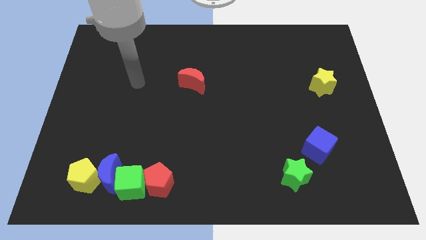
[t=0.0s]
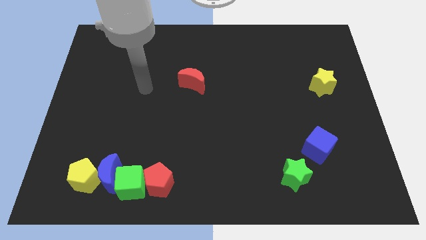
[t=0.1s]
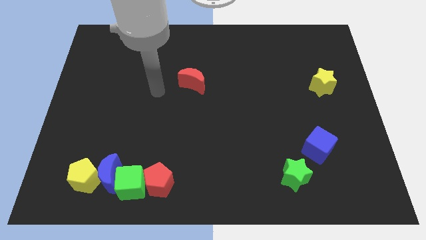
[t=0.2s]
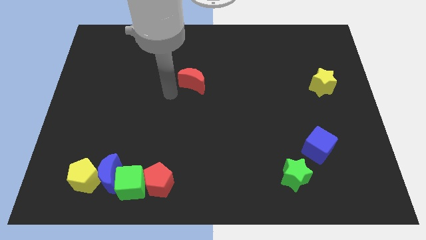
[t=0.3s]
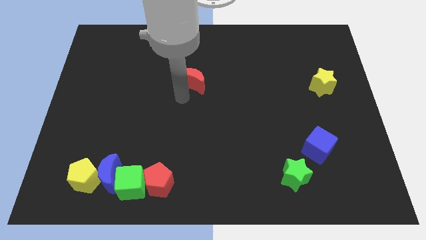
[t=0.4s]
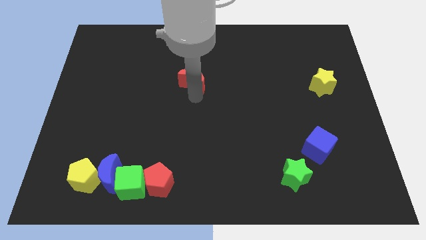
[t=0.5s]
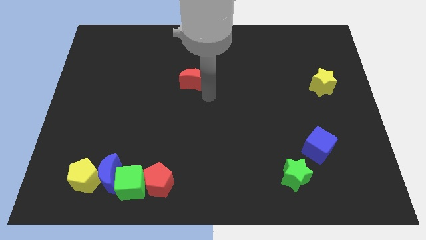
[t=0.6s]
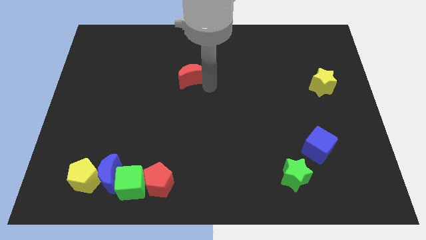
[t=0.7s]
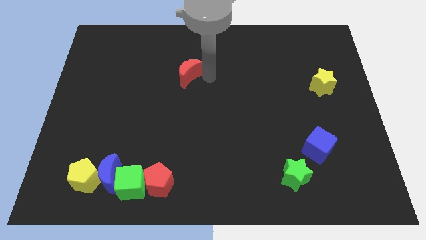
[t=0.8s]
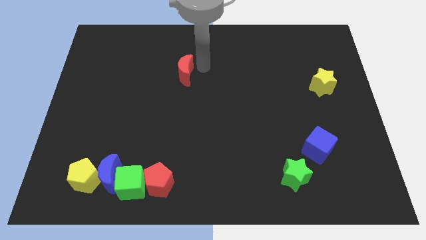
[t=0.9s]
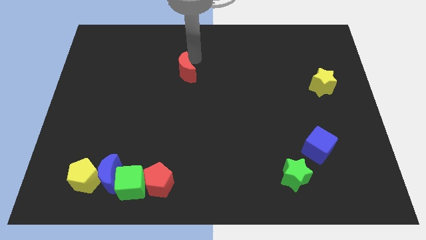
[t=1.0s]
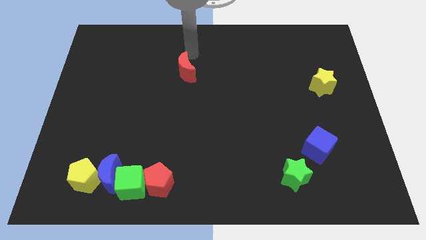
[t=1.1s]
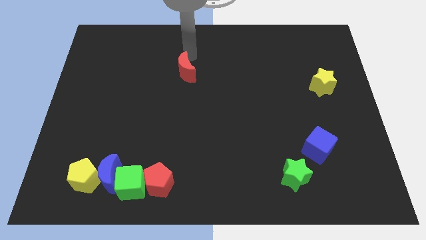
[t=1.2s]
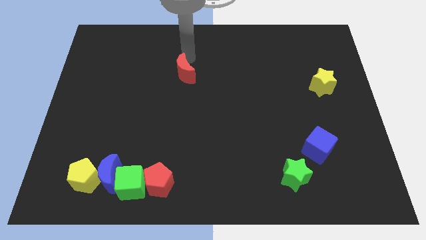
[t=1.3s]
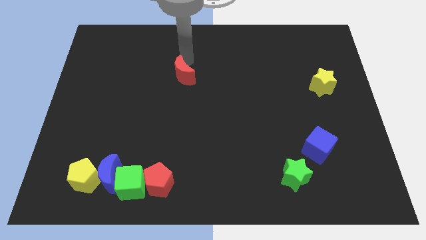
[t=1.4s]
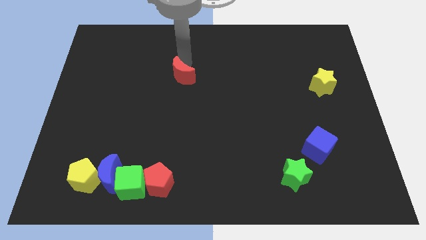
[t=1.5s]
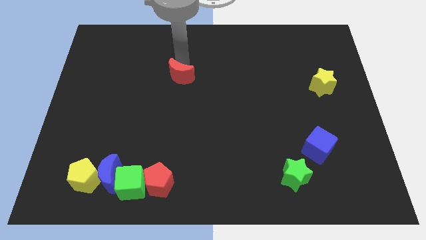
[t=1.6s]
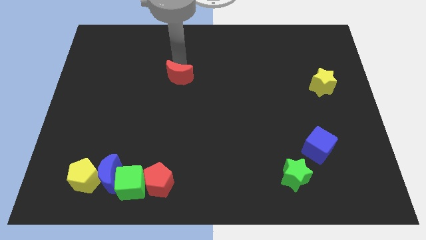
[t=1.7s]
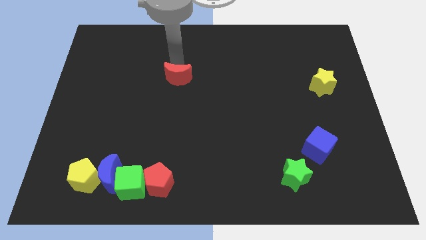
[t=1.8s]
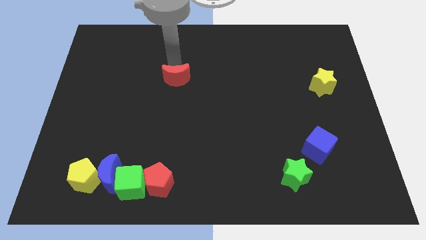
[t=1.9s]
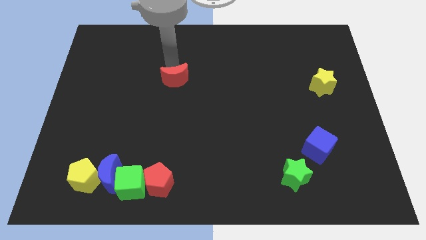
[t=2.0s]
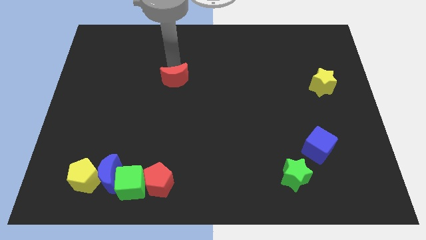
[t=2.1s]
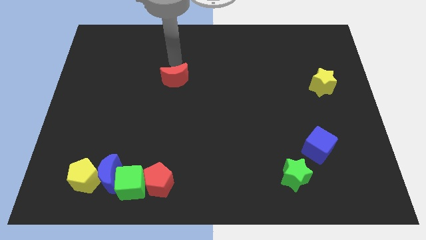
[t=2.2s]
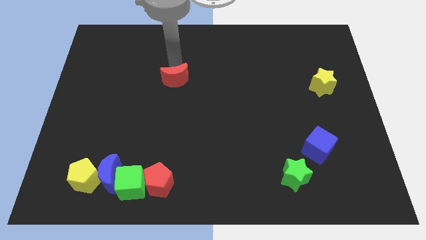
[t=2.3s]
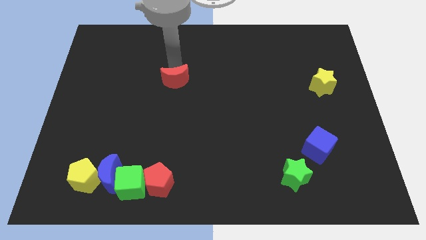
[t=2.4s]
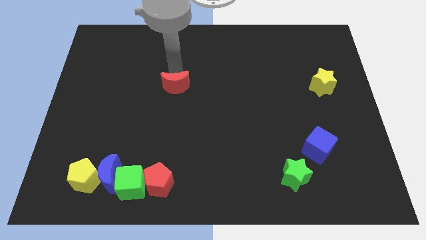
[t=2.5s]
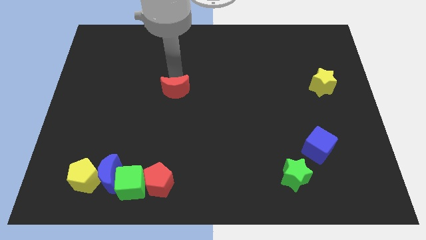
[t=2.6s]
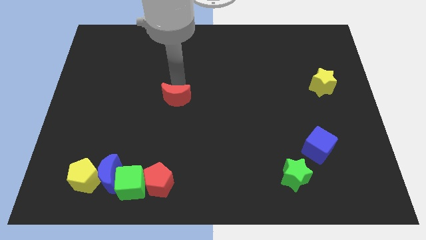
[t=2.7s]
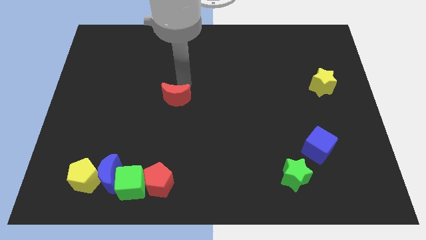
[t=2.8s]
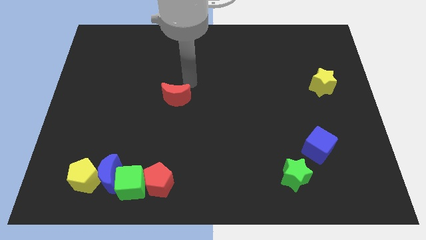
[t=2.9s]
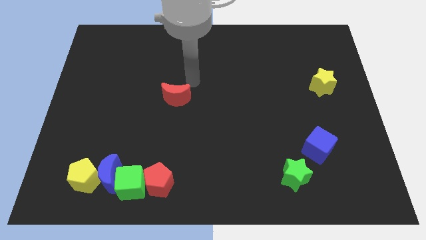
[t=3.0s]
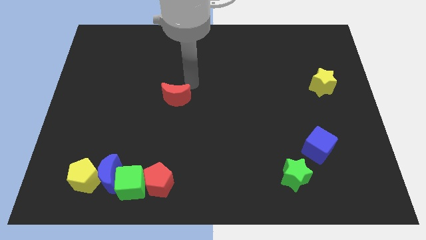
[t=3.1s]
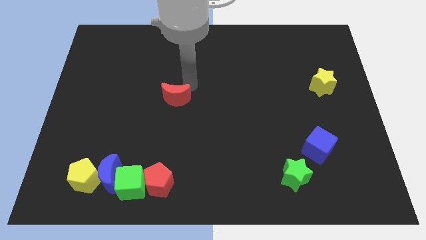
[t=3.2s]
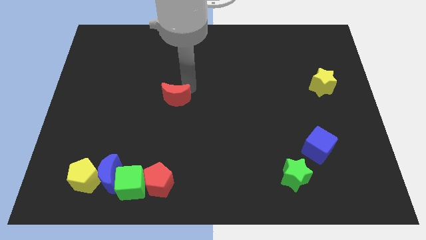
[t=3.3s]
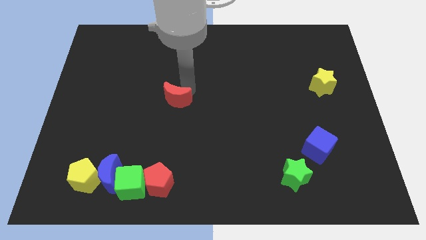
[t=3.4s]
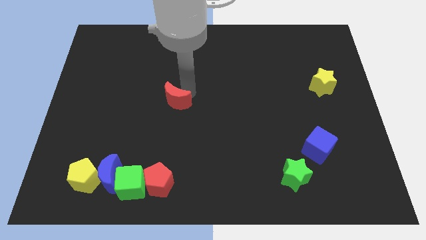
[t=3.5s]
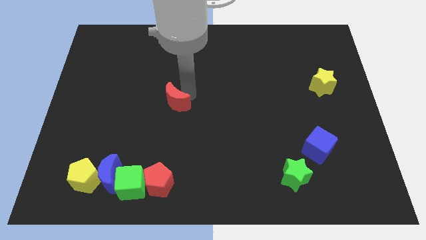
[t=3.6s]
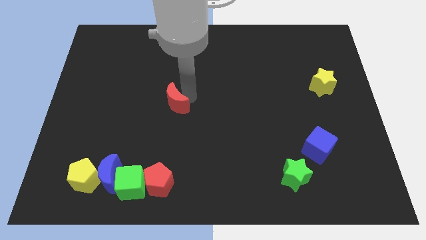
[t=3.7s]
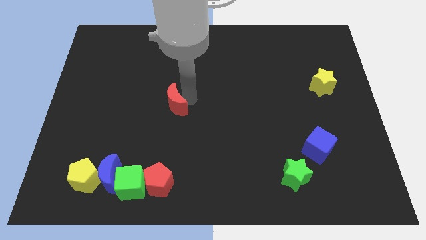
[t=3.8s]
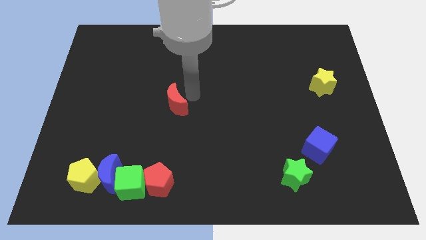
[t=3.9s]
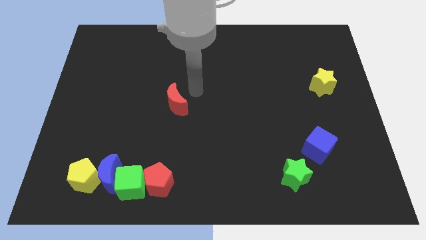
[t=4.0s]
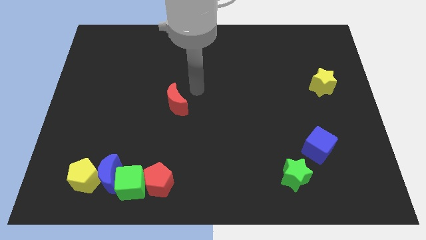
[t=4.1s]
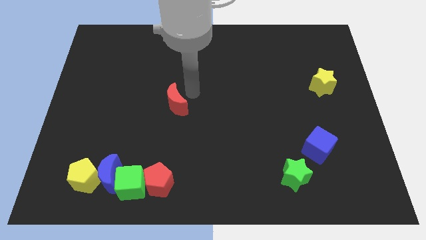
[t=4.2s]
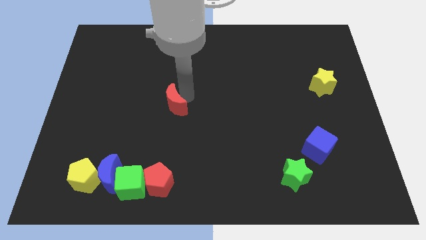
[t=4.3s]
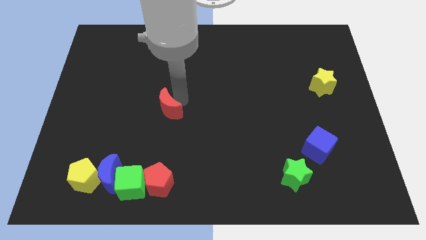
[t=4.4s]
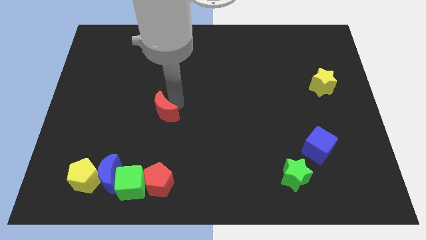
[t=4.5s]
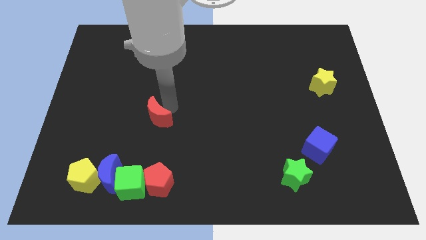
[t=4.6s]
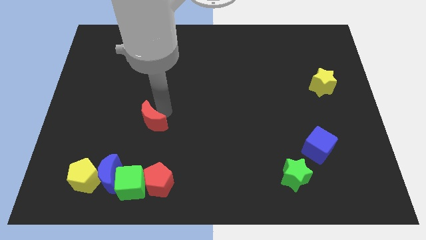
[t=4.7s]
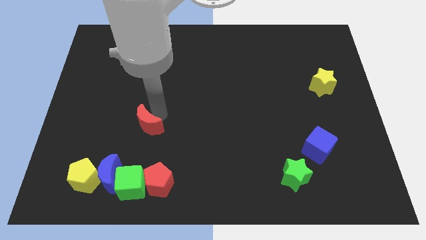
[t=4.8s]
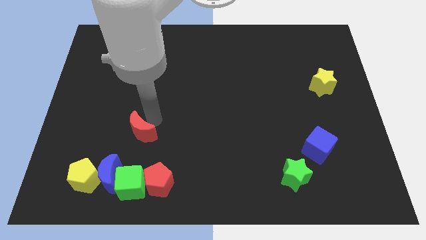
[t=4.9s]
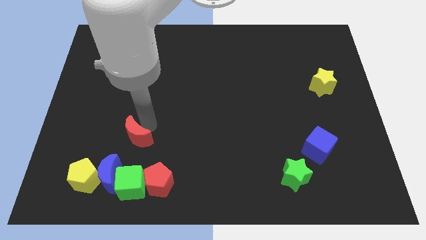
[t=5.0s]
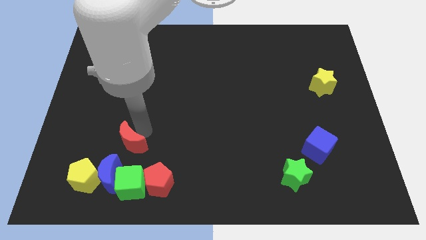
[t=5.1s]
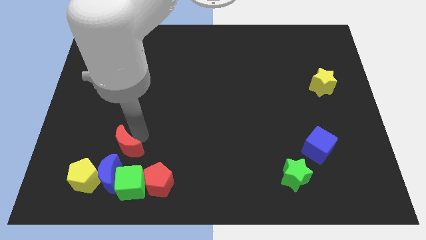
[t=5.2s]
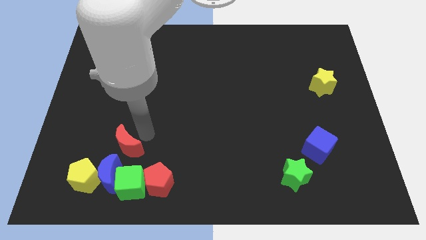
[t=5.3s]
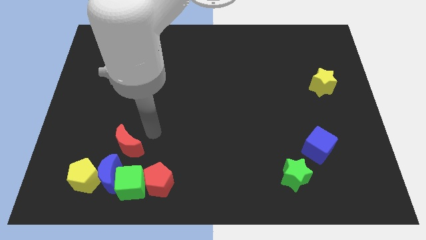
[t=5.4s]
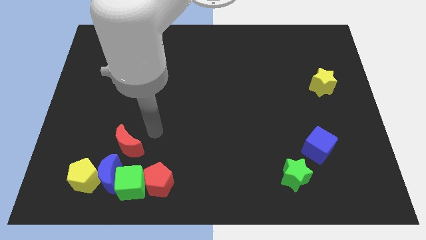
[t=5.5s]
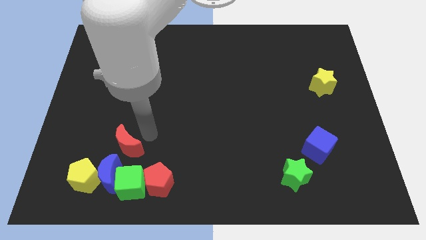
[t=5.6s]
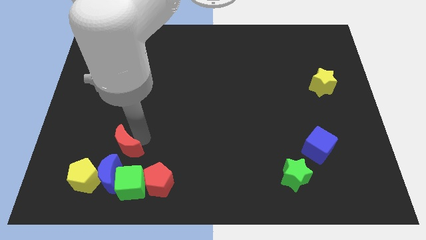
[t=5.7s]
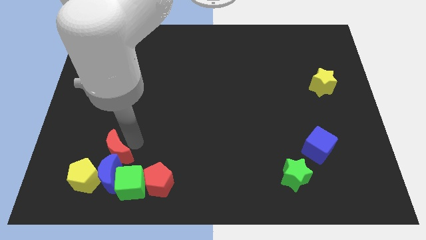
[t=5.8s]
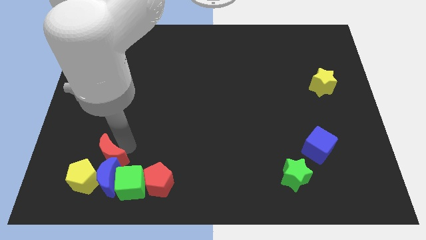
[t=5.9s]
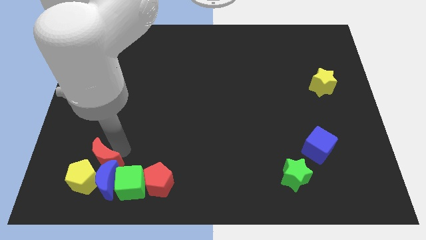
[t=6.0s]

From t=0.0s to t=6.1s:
slide the red moon next to the yellow pentagon

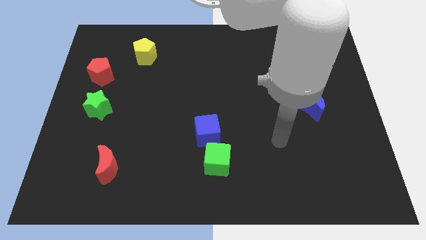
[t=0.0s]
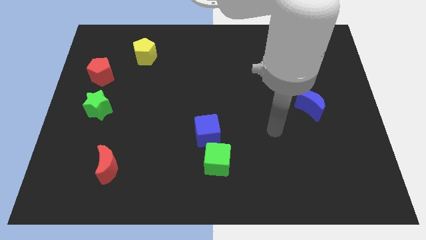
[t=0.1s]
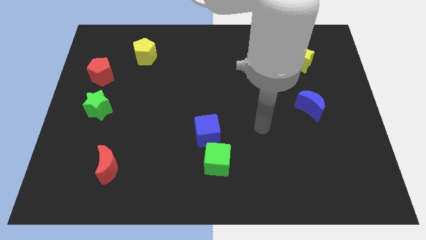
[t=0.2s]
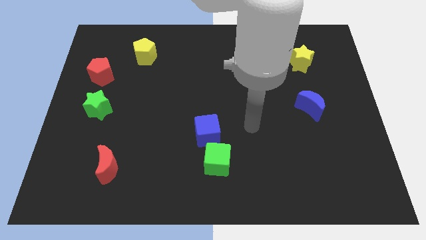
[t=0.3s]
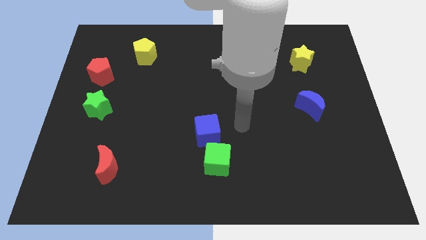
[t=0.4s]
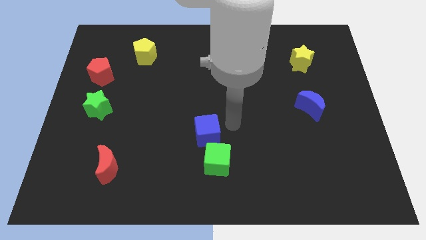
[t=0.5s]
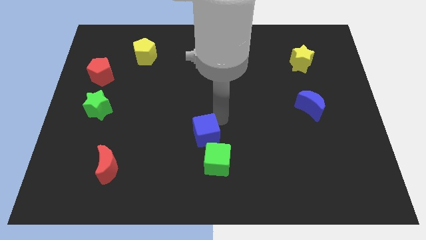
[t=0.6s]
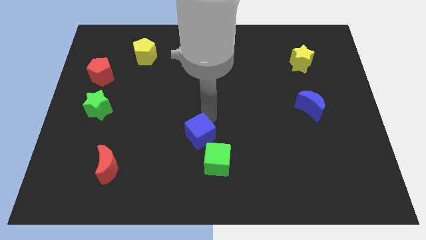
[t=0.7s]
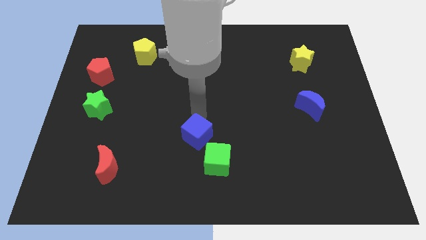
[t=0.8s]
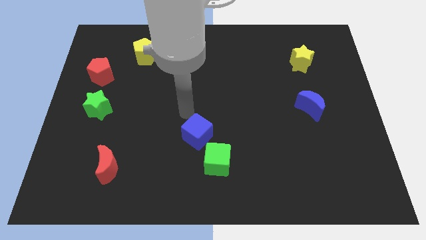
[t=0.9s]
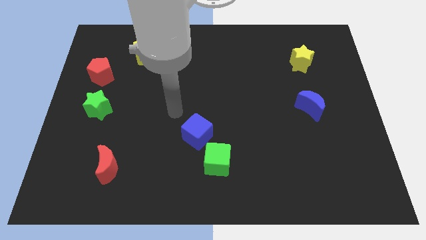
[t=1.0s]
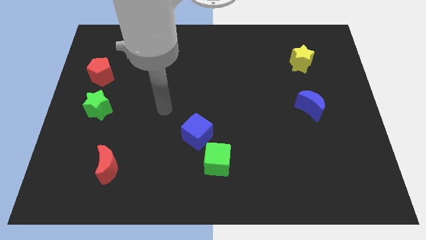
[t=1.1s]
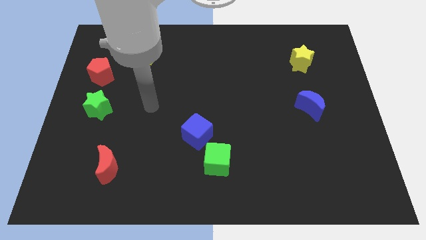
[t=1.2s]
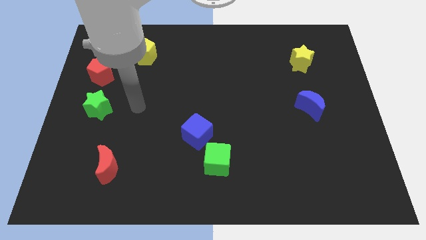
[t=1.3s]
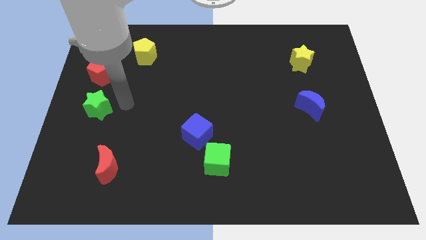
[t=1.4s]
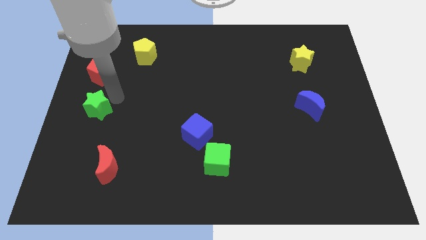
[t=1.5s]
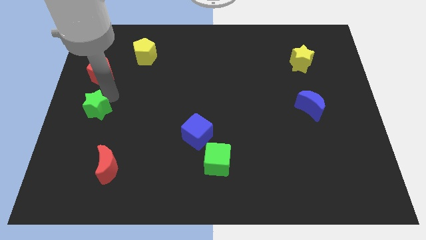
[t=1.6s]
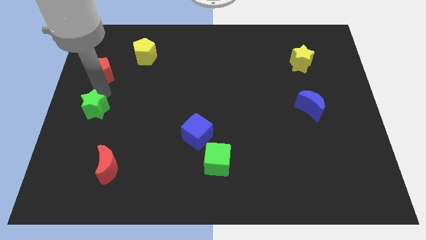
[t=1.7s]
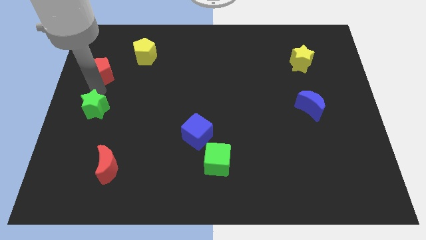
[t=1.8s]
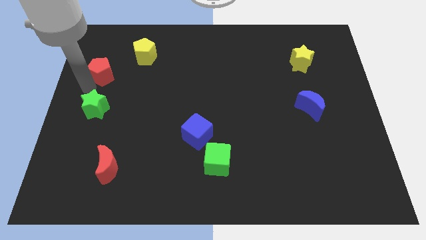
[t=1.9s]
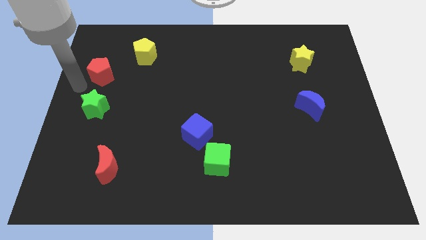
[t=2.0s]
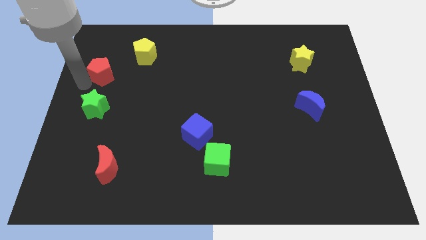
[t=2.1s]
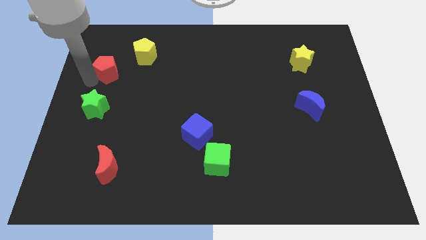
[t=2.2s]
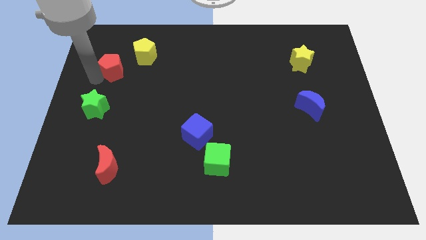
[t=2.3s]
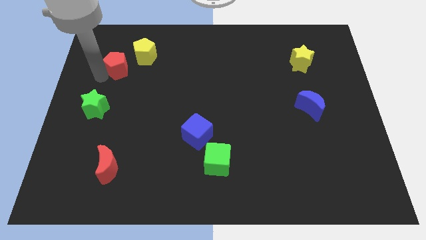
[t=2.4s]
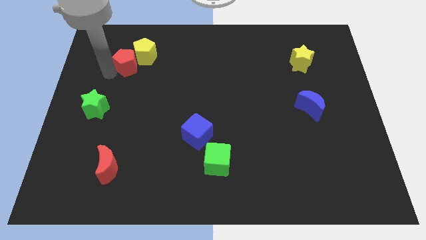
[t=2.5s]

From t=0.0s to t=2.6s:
put the red pentagon next to the yellow pentagon
